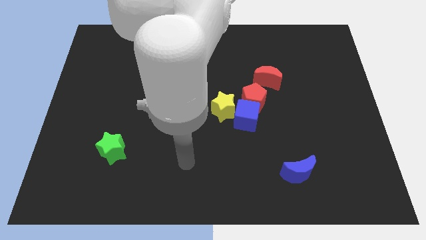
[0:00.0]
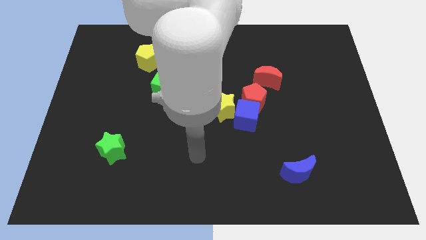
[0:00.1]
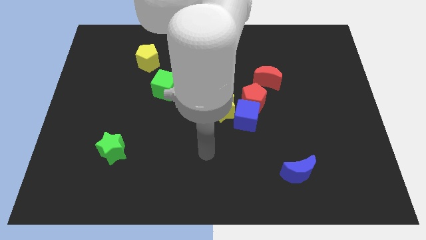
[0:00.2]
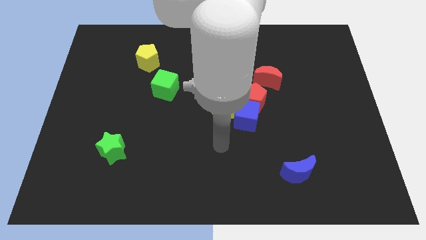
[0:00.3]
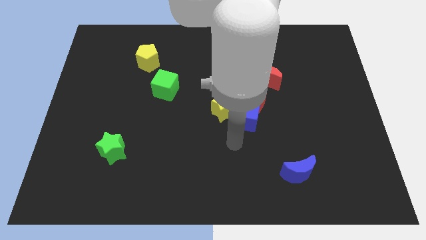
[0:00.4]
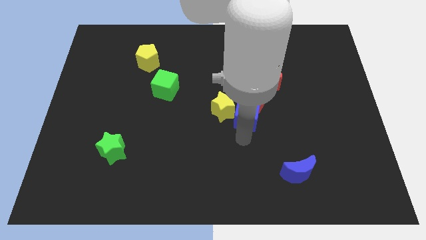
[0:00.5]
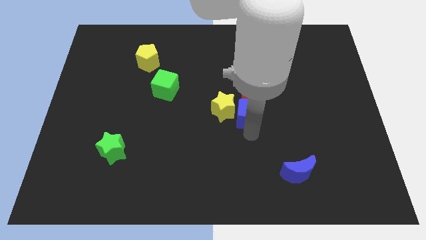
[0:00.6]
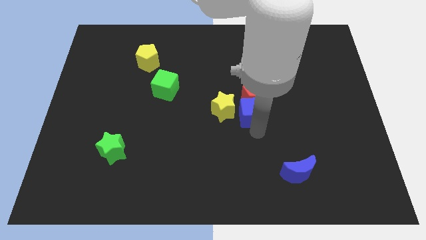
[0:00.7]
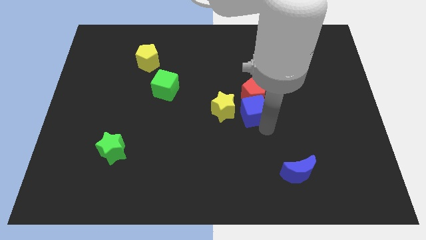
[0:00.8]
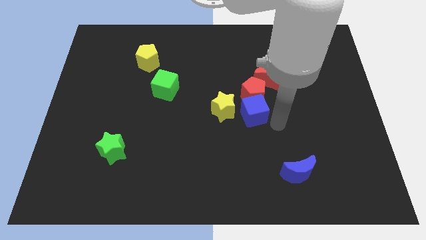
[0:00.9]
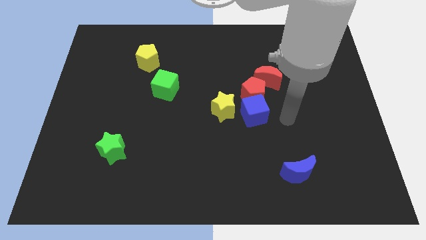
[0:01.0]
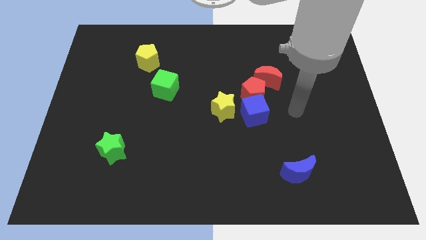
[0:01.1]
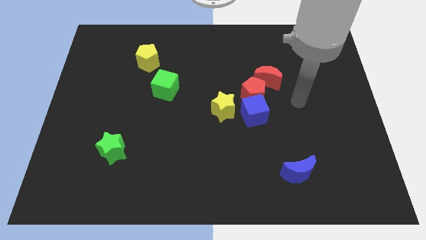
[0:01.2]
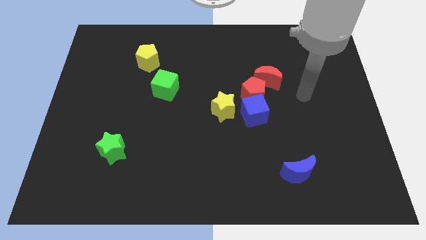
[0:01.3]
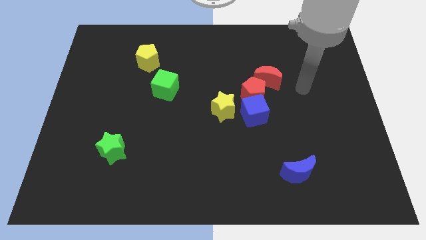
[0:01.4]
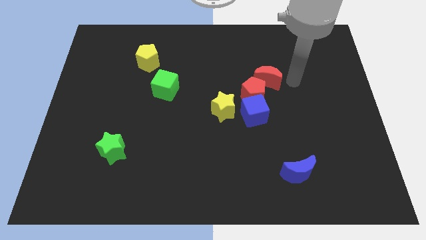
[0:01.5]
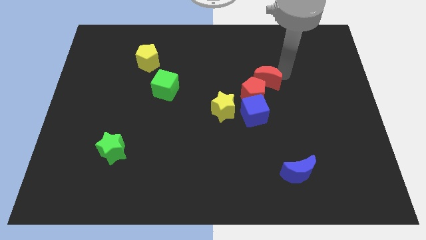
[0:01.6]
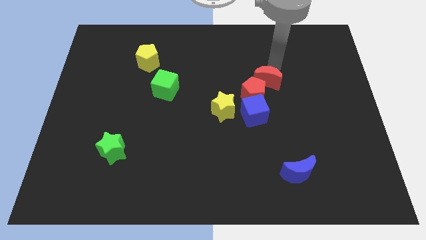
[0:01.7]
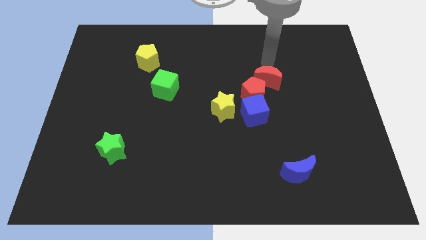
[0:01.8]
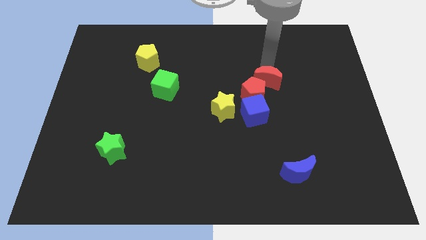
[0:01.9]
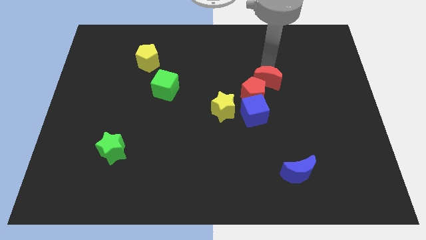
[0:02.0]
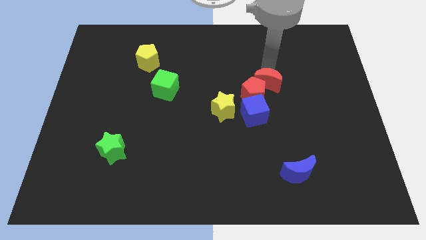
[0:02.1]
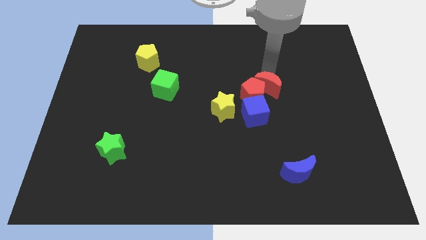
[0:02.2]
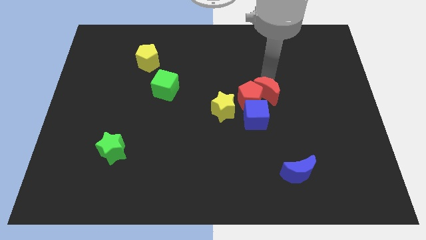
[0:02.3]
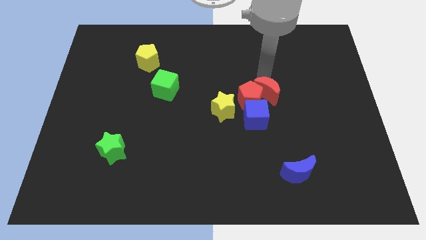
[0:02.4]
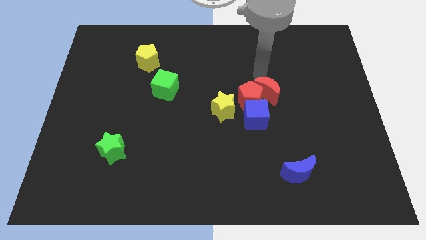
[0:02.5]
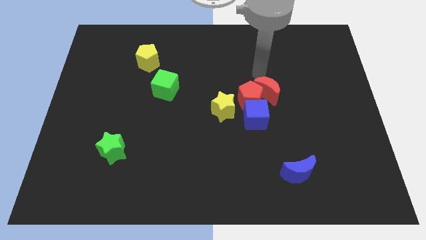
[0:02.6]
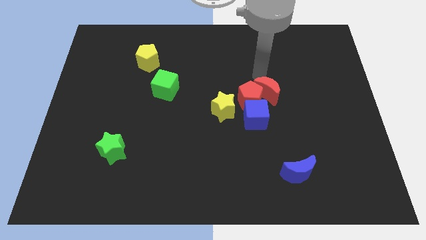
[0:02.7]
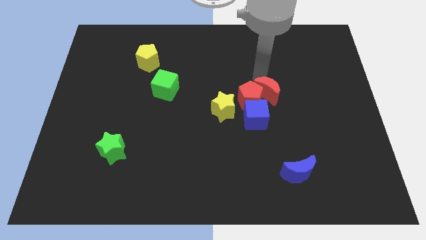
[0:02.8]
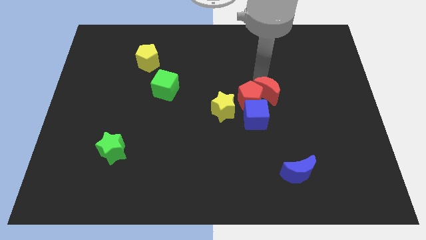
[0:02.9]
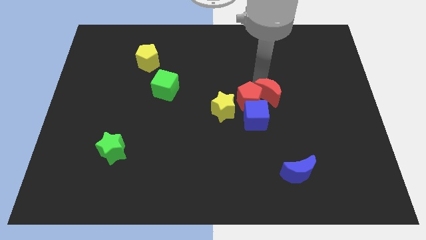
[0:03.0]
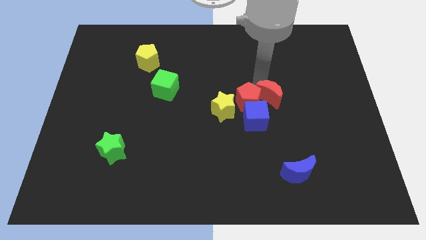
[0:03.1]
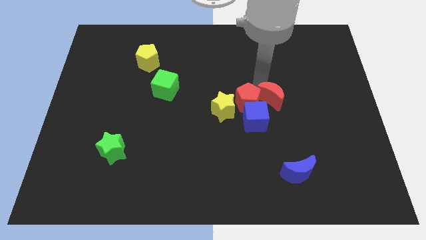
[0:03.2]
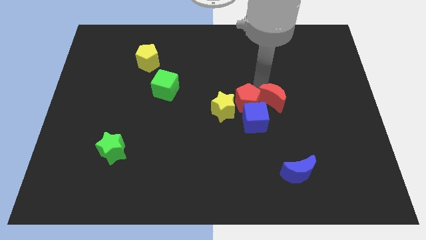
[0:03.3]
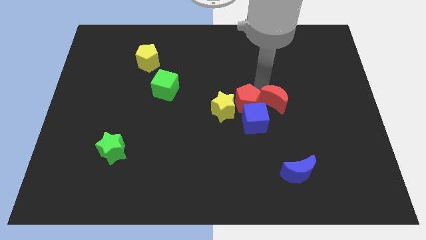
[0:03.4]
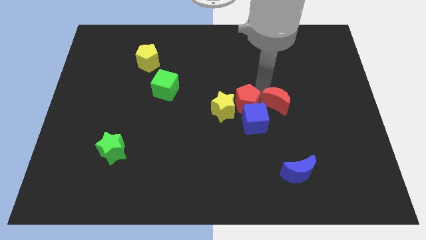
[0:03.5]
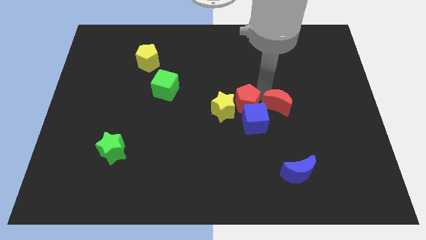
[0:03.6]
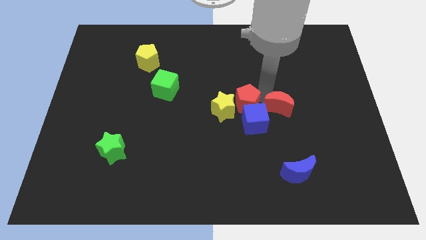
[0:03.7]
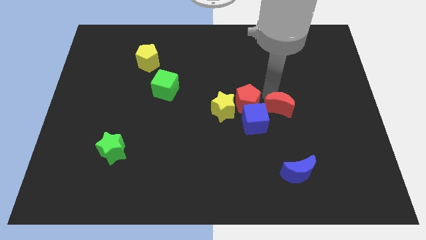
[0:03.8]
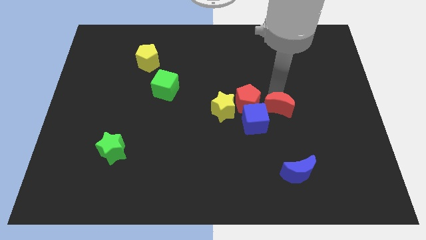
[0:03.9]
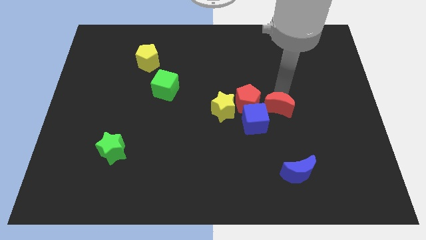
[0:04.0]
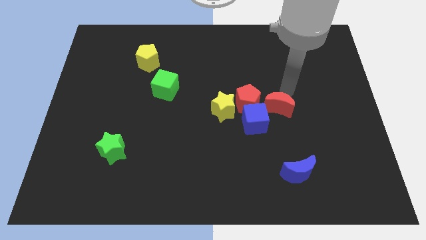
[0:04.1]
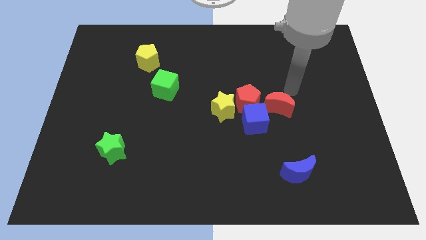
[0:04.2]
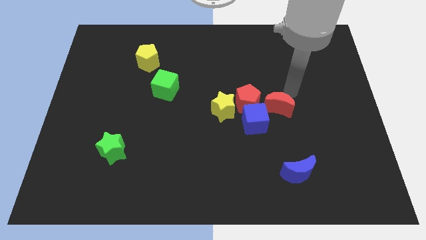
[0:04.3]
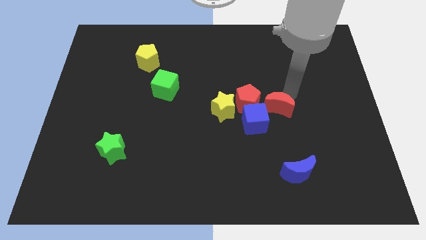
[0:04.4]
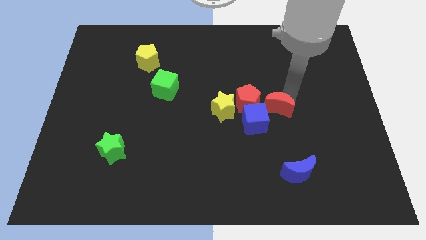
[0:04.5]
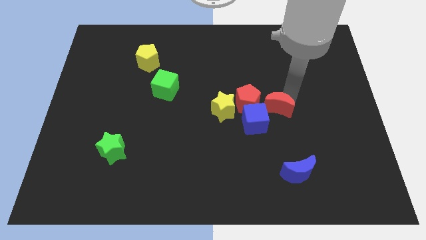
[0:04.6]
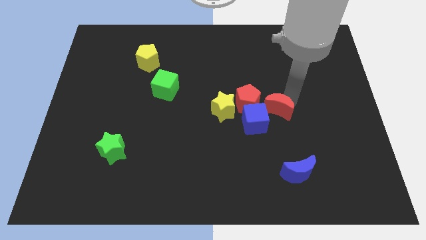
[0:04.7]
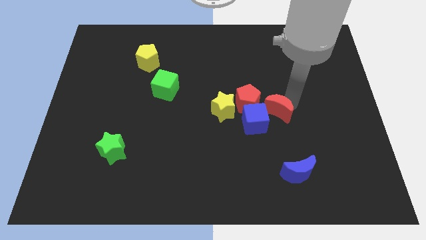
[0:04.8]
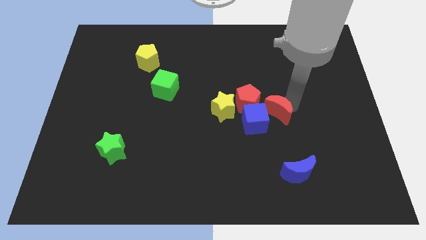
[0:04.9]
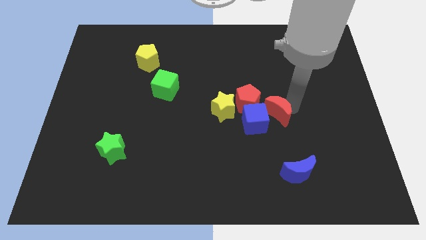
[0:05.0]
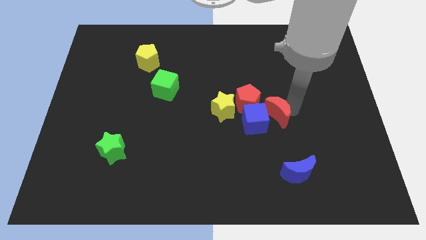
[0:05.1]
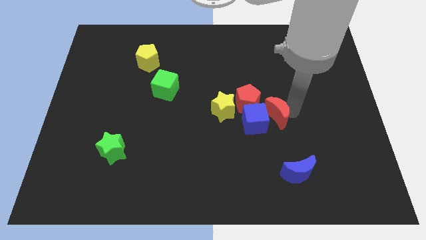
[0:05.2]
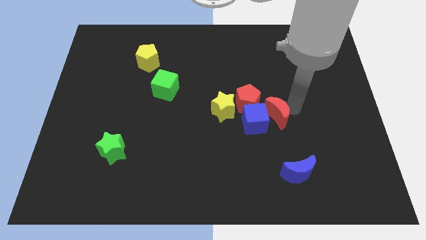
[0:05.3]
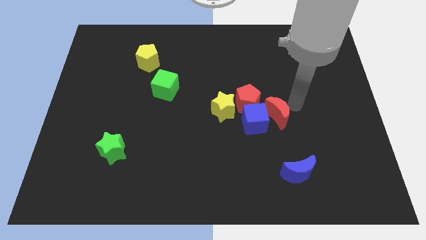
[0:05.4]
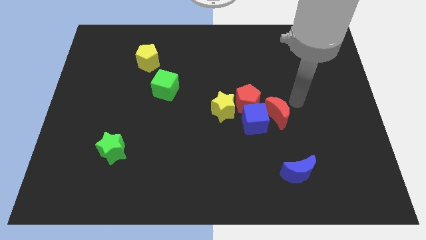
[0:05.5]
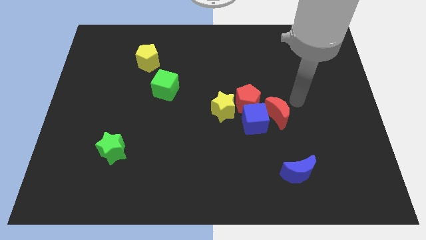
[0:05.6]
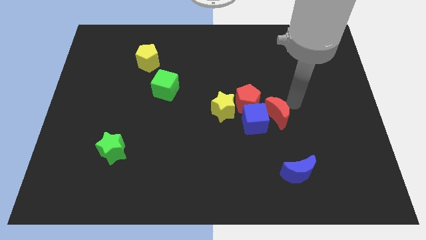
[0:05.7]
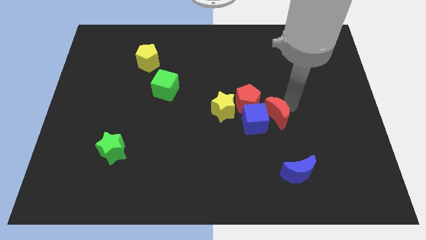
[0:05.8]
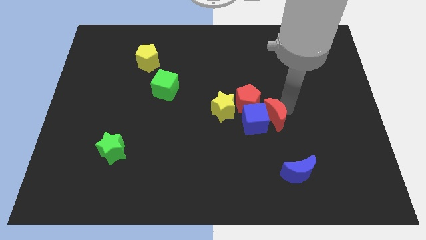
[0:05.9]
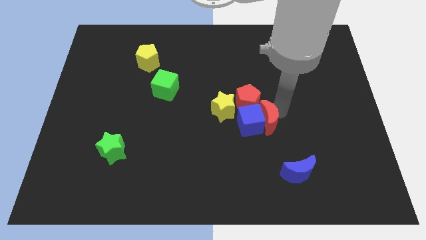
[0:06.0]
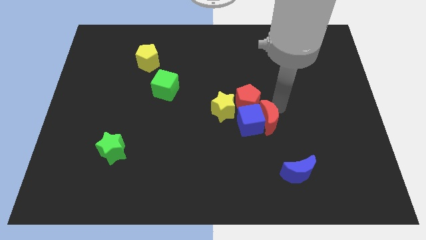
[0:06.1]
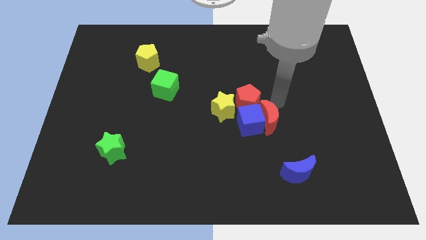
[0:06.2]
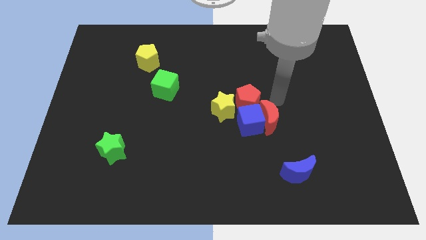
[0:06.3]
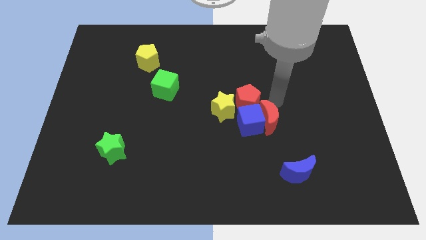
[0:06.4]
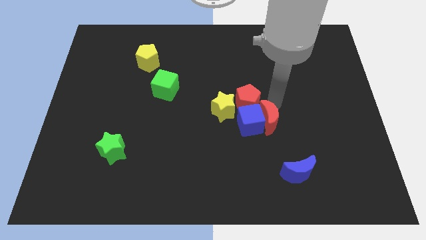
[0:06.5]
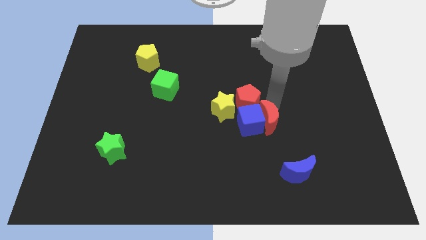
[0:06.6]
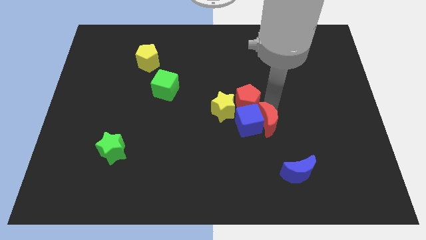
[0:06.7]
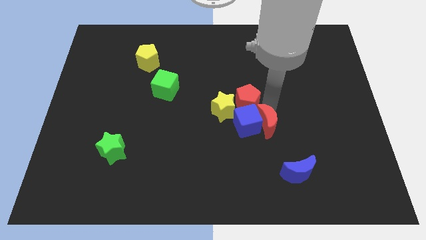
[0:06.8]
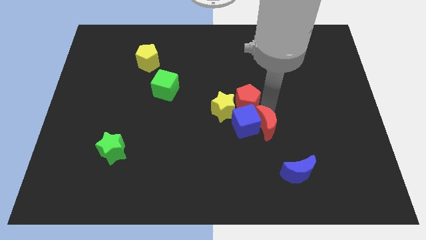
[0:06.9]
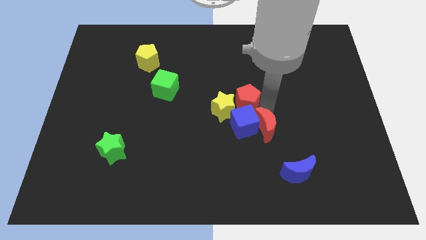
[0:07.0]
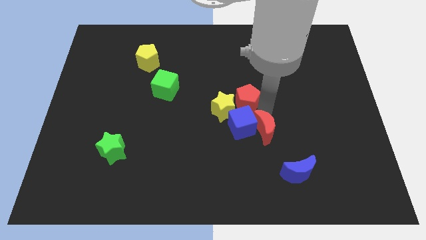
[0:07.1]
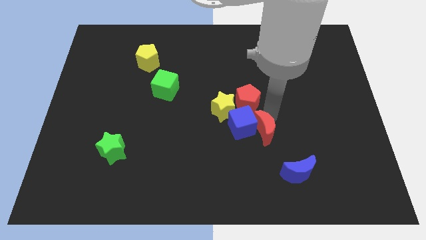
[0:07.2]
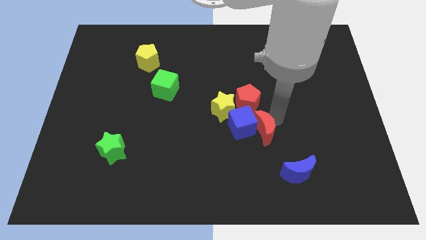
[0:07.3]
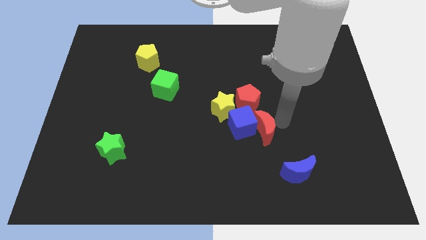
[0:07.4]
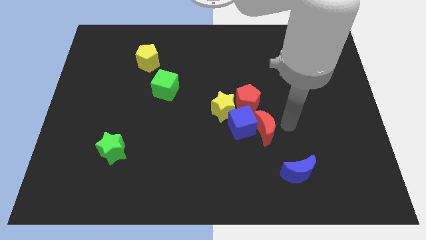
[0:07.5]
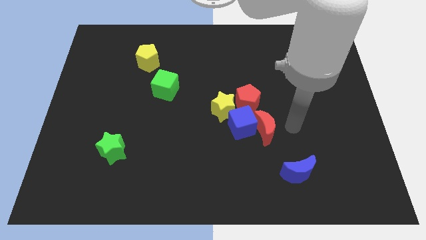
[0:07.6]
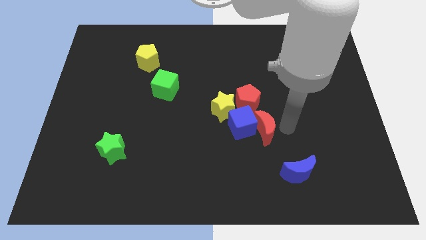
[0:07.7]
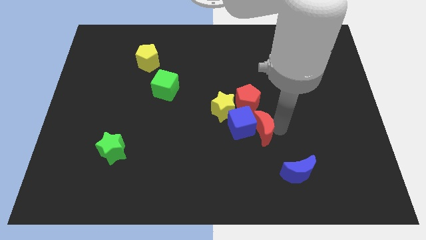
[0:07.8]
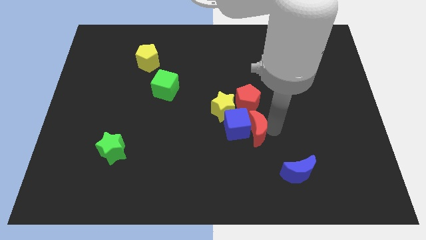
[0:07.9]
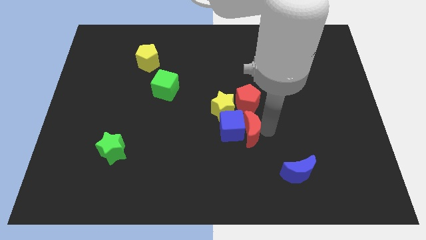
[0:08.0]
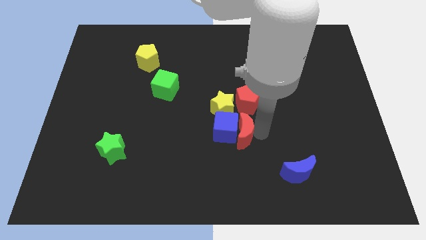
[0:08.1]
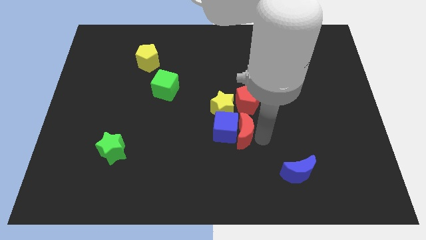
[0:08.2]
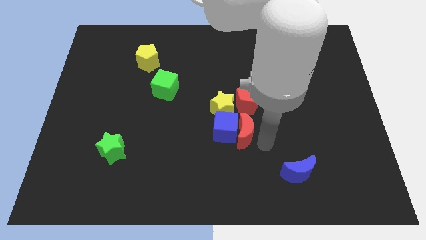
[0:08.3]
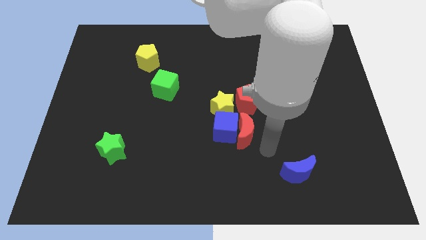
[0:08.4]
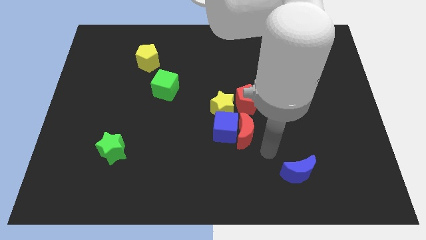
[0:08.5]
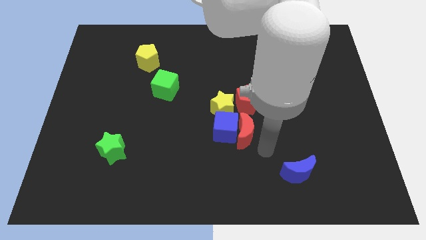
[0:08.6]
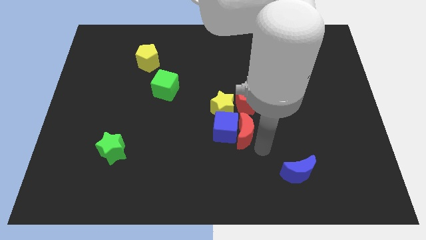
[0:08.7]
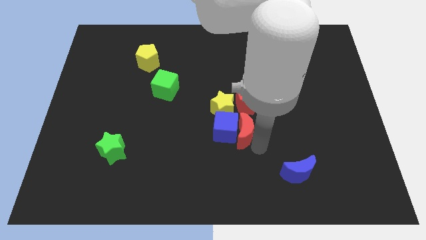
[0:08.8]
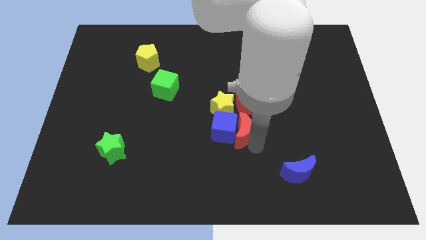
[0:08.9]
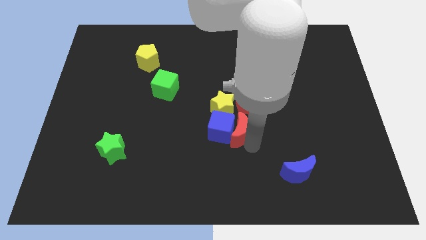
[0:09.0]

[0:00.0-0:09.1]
put the red moon to the bottom left side of the red pentagon
